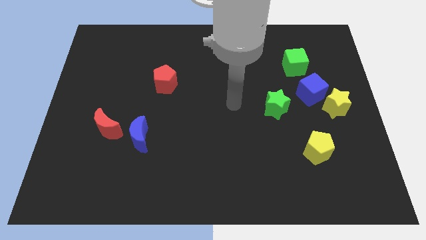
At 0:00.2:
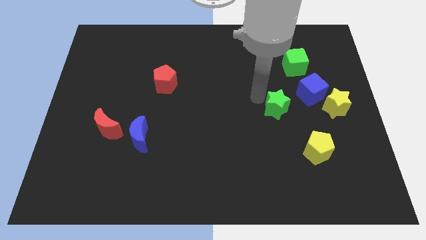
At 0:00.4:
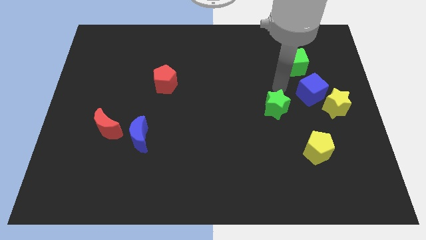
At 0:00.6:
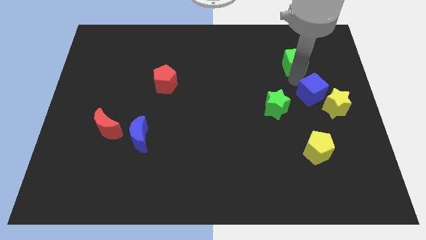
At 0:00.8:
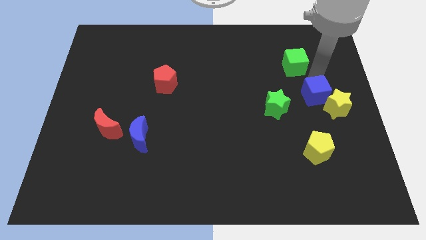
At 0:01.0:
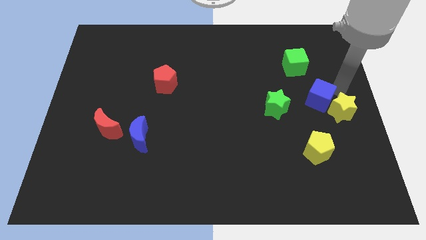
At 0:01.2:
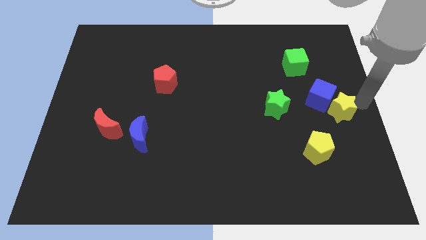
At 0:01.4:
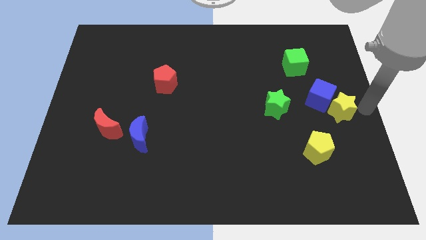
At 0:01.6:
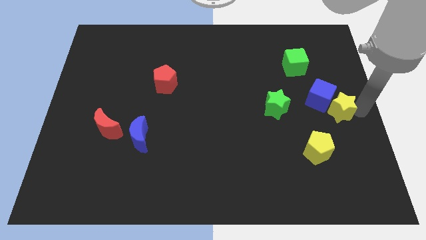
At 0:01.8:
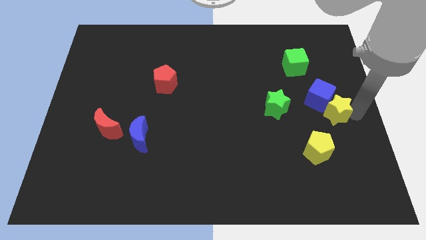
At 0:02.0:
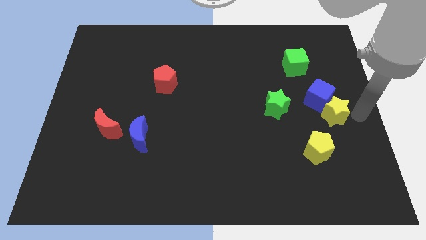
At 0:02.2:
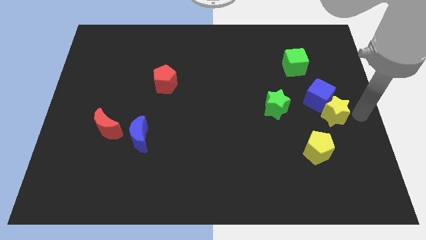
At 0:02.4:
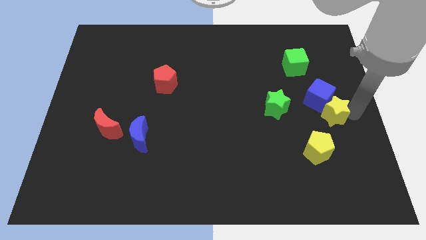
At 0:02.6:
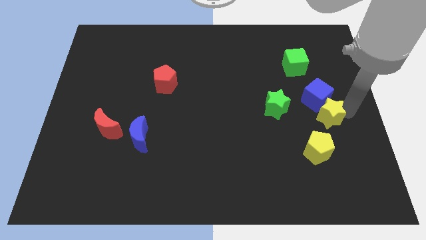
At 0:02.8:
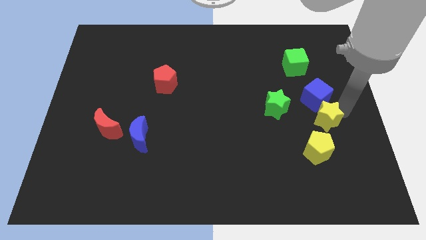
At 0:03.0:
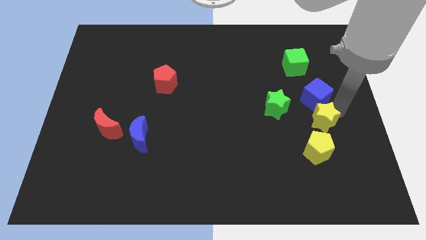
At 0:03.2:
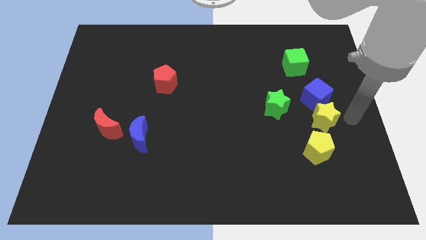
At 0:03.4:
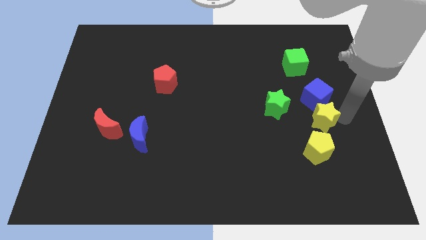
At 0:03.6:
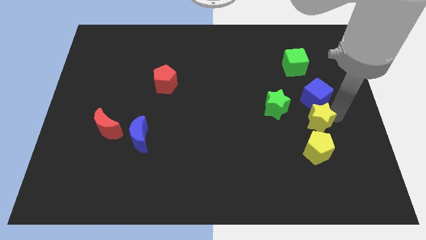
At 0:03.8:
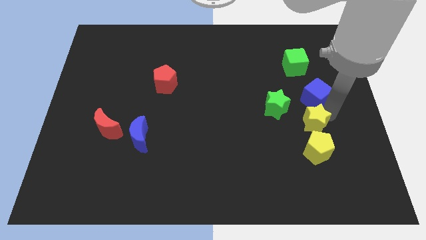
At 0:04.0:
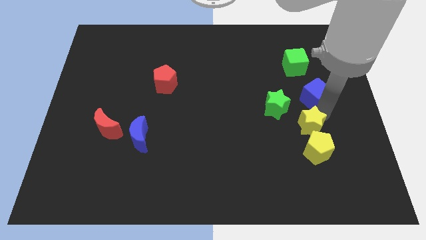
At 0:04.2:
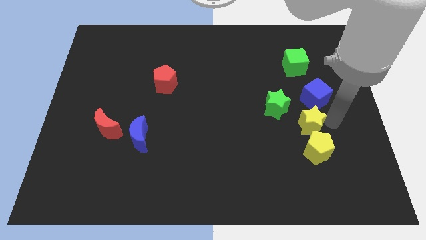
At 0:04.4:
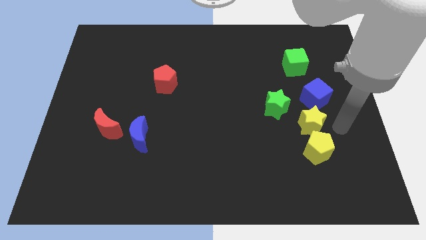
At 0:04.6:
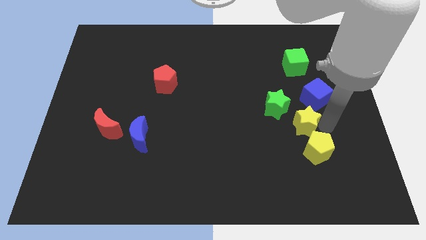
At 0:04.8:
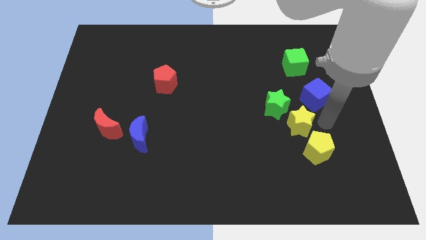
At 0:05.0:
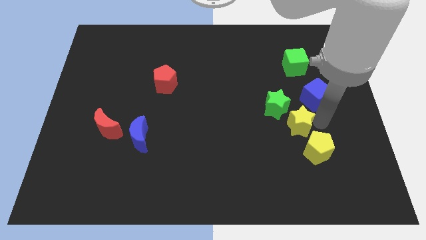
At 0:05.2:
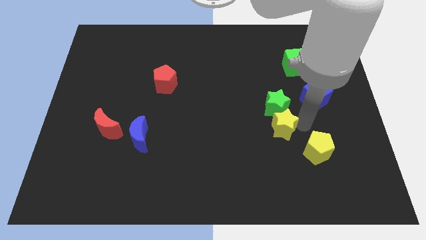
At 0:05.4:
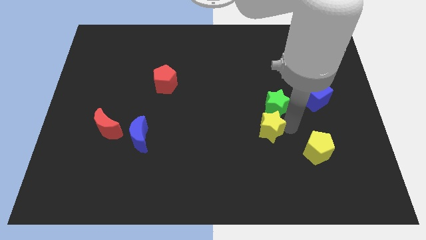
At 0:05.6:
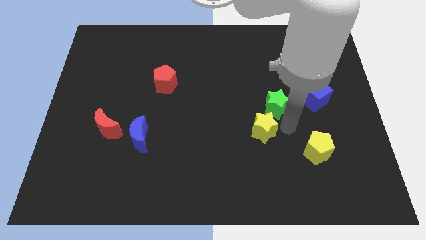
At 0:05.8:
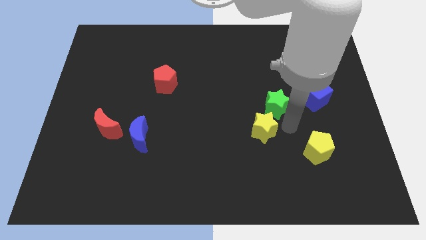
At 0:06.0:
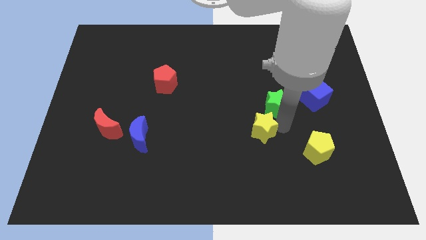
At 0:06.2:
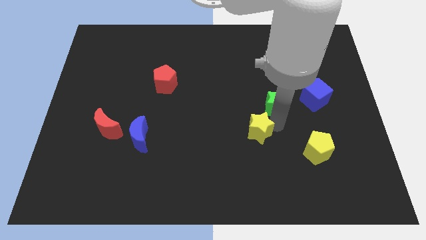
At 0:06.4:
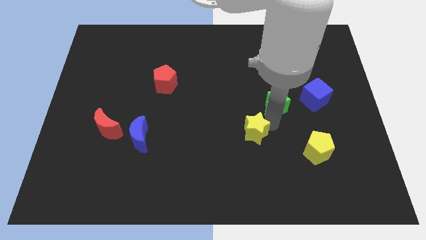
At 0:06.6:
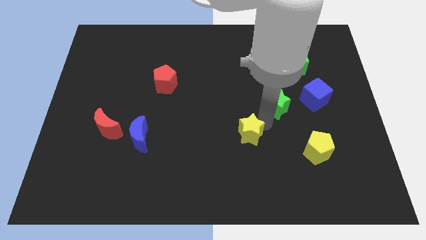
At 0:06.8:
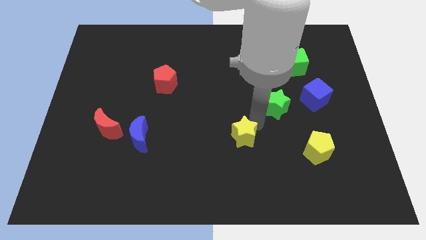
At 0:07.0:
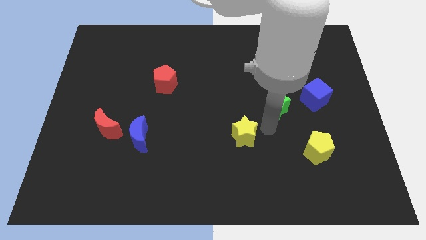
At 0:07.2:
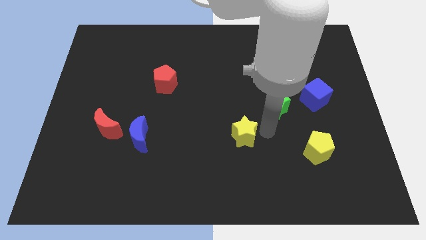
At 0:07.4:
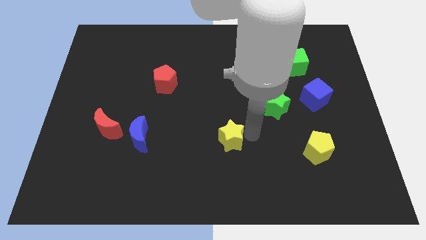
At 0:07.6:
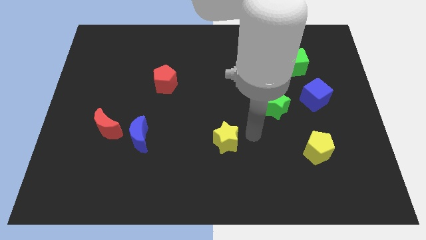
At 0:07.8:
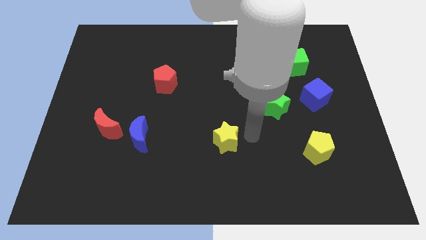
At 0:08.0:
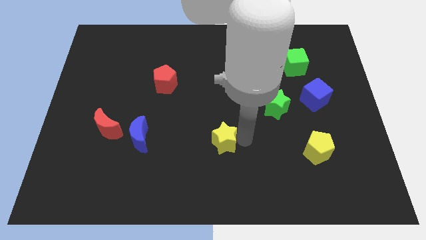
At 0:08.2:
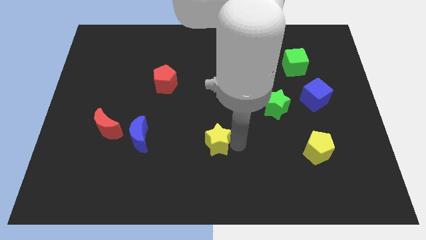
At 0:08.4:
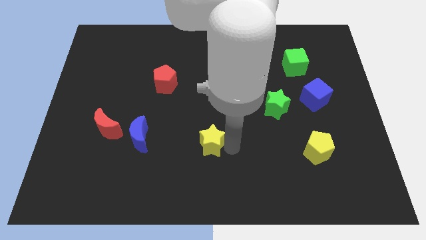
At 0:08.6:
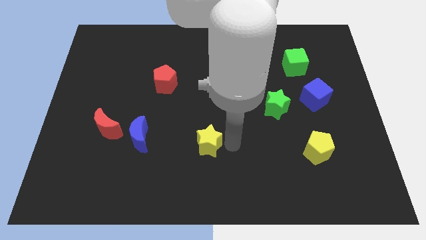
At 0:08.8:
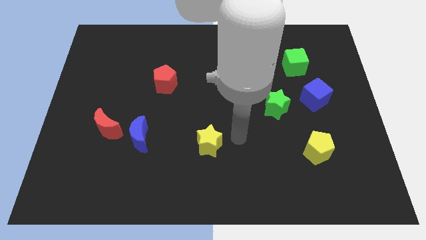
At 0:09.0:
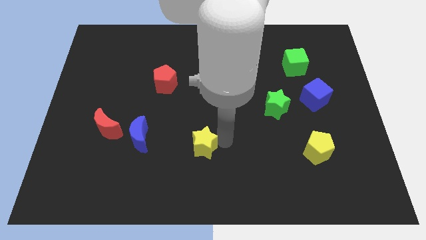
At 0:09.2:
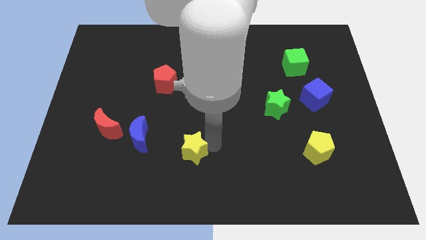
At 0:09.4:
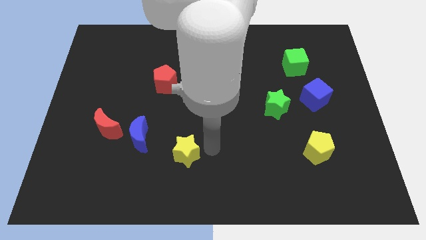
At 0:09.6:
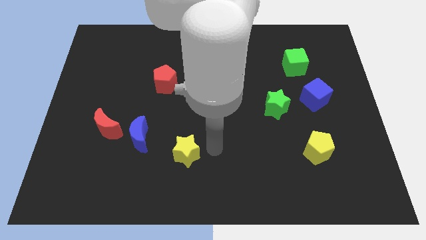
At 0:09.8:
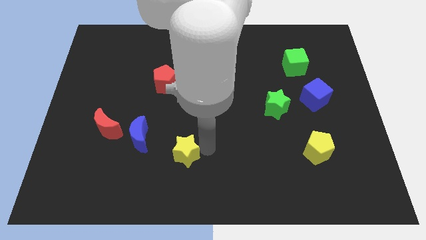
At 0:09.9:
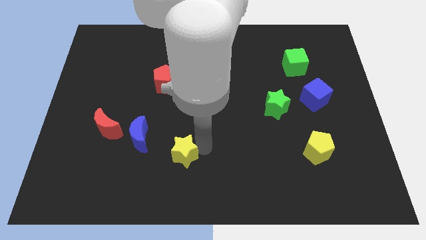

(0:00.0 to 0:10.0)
move the yellow star to the bottom right side of the blue moon

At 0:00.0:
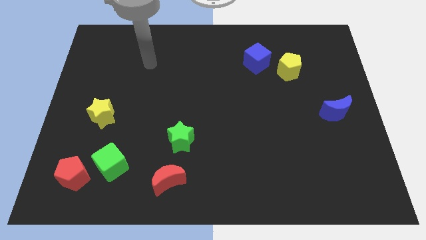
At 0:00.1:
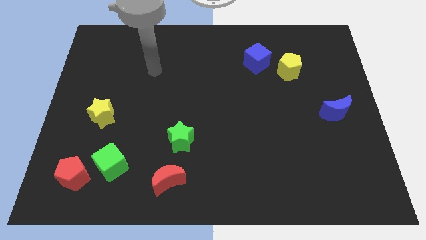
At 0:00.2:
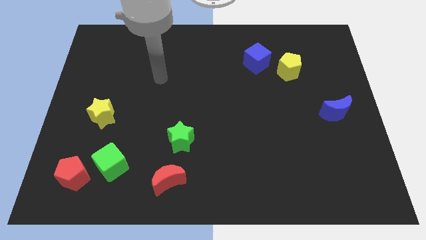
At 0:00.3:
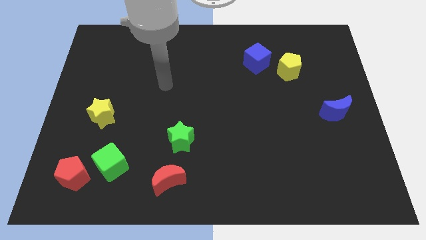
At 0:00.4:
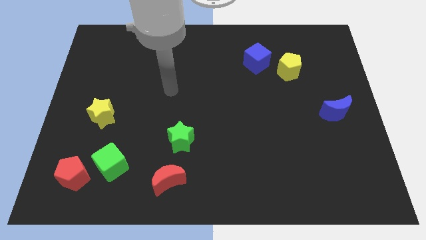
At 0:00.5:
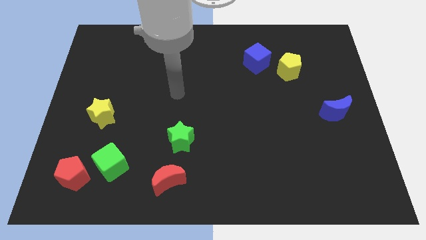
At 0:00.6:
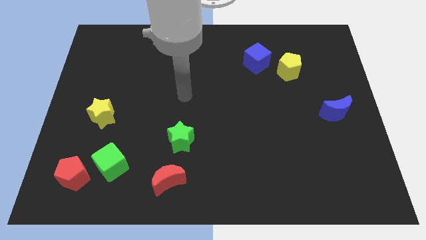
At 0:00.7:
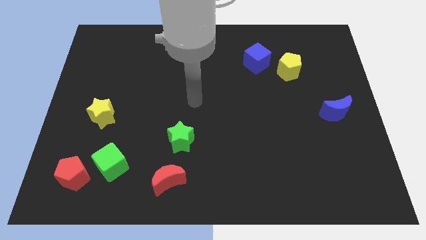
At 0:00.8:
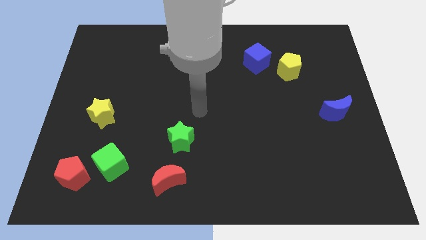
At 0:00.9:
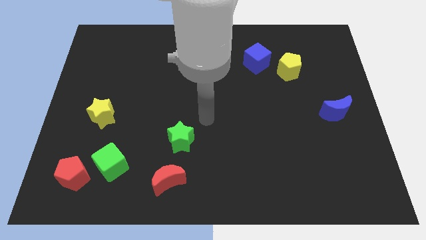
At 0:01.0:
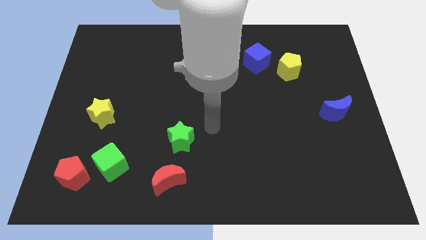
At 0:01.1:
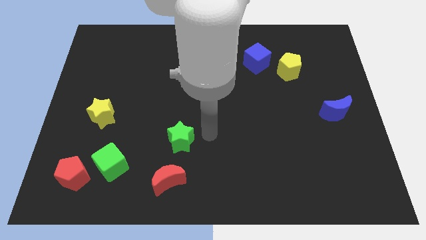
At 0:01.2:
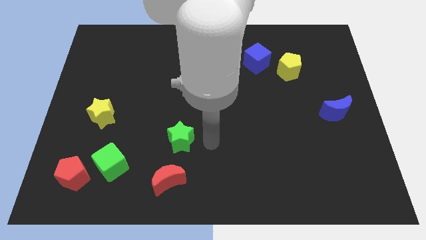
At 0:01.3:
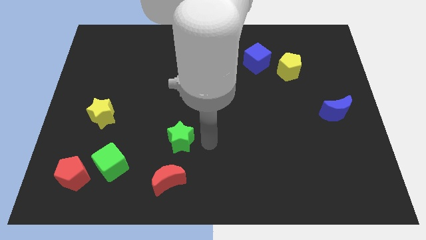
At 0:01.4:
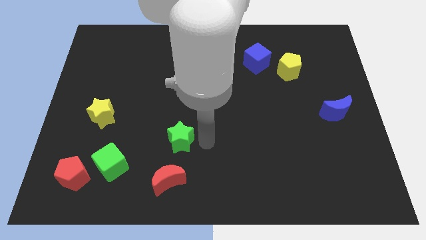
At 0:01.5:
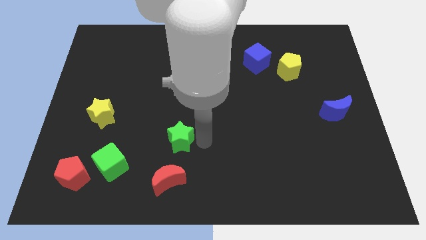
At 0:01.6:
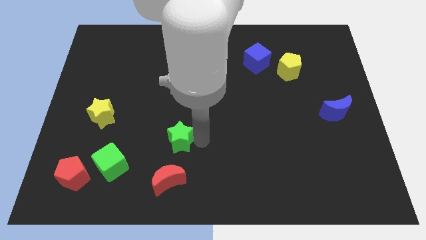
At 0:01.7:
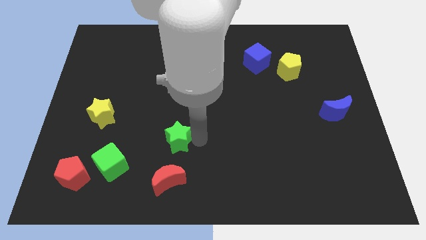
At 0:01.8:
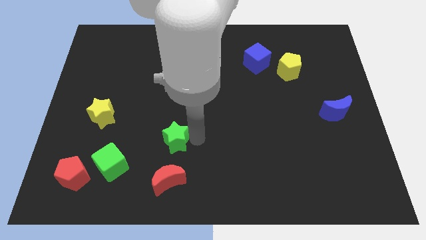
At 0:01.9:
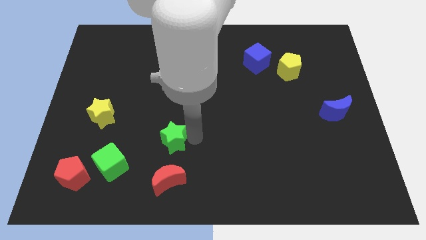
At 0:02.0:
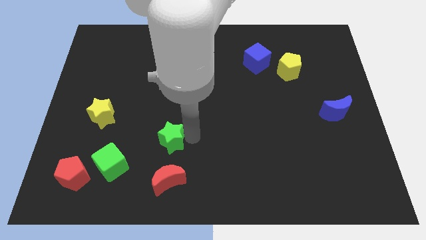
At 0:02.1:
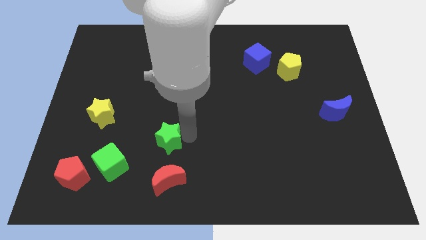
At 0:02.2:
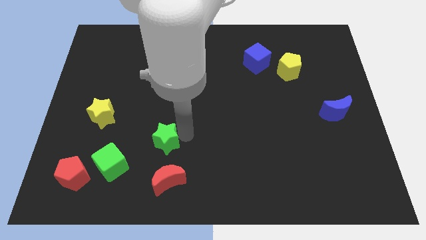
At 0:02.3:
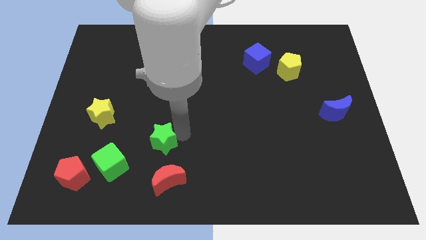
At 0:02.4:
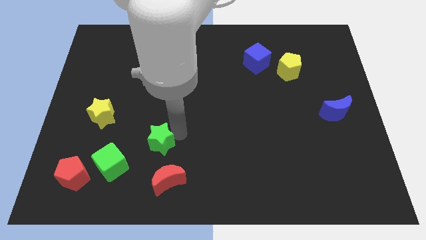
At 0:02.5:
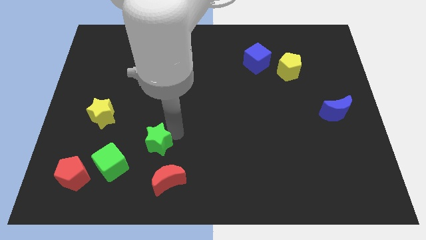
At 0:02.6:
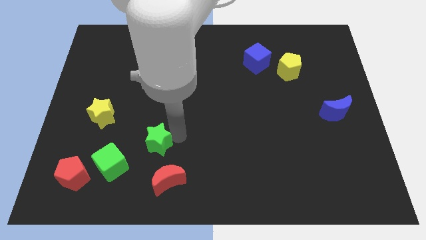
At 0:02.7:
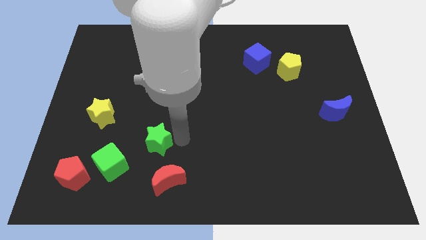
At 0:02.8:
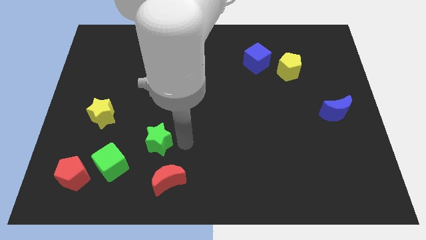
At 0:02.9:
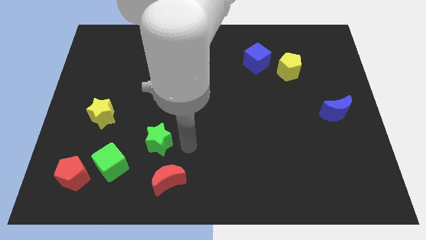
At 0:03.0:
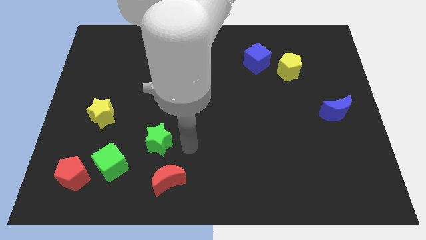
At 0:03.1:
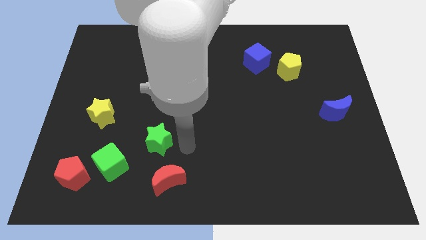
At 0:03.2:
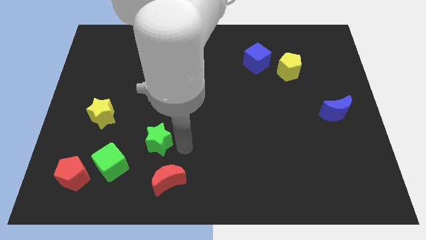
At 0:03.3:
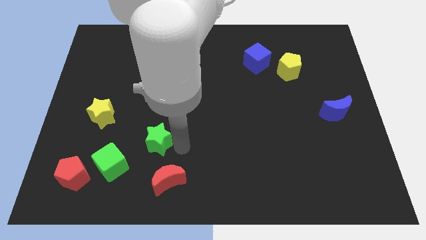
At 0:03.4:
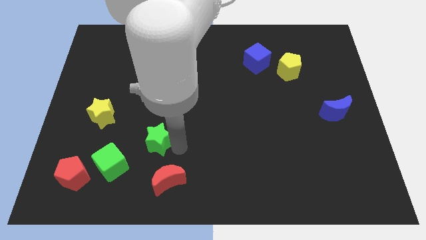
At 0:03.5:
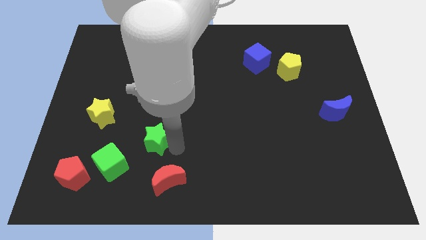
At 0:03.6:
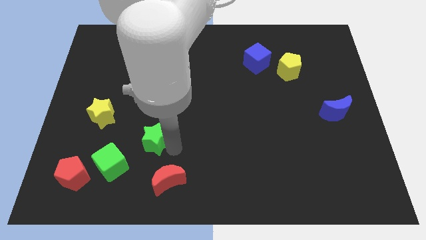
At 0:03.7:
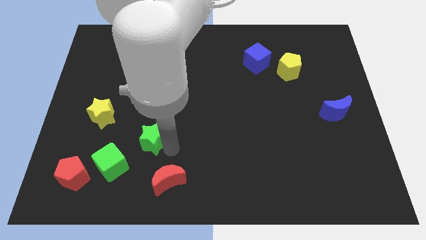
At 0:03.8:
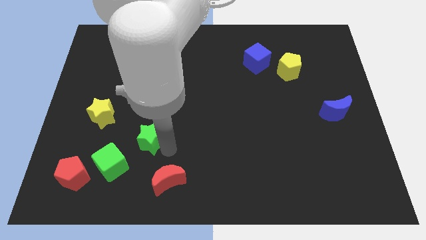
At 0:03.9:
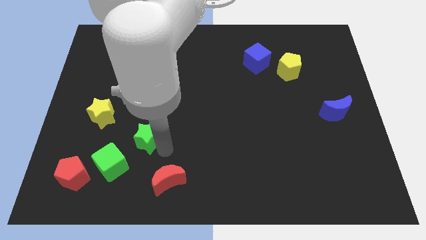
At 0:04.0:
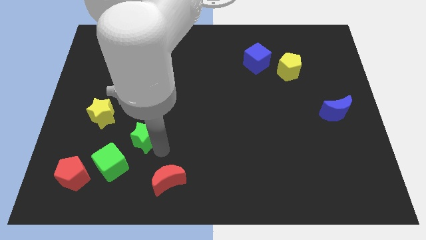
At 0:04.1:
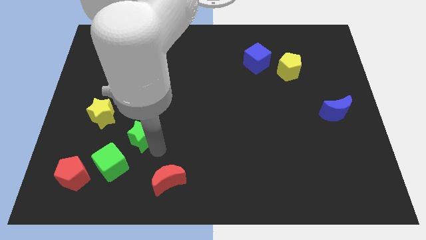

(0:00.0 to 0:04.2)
move the green star diagonally down and to the right of the yellow star
